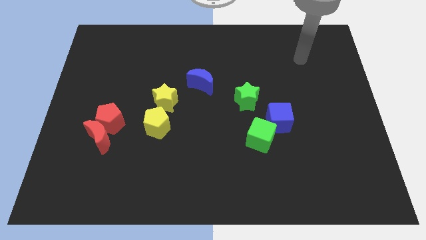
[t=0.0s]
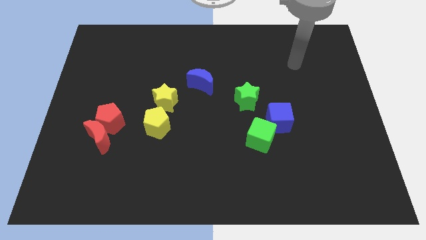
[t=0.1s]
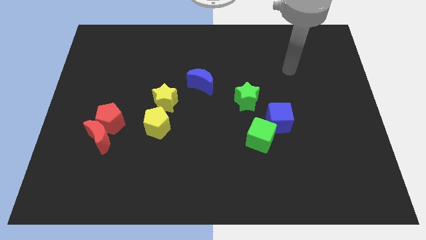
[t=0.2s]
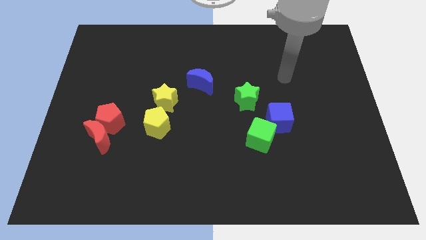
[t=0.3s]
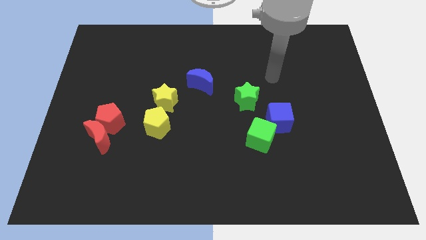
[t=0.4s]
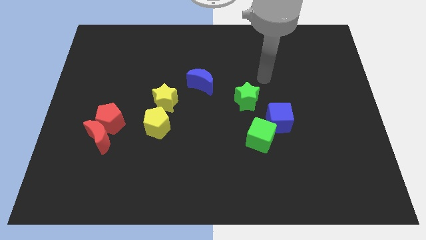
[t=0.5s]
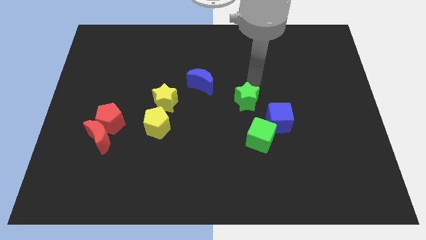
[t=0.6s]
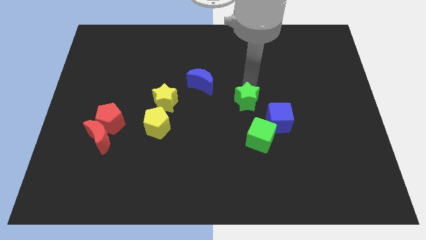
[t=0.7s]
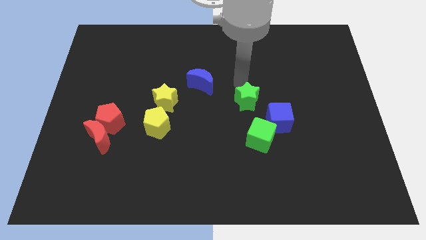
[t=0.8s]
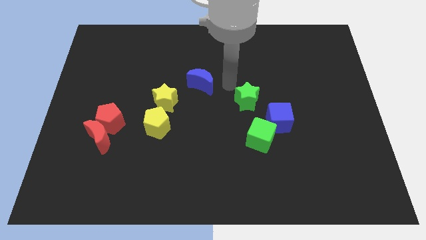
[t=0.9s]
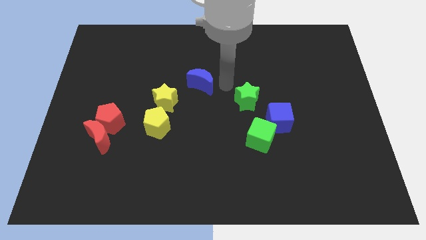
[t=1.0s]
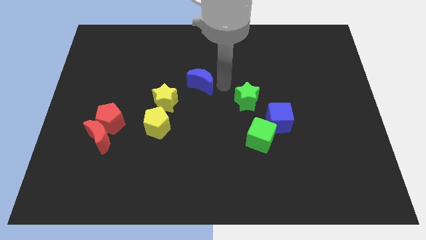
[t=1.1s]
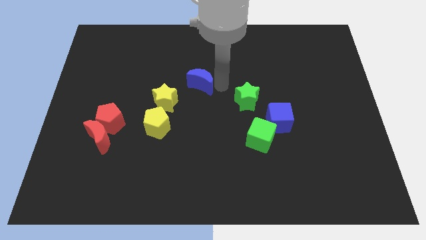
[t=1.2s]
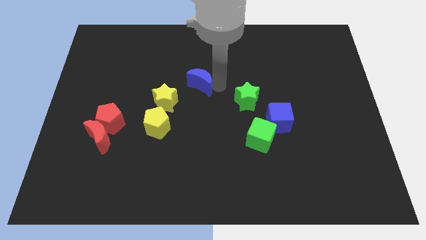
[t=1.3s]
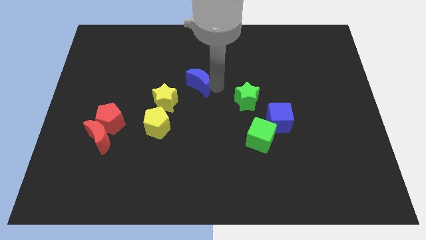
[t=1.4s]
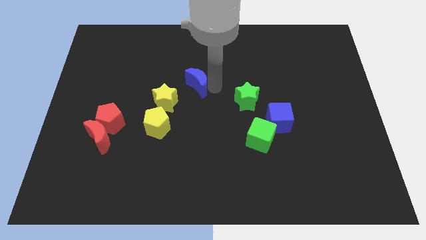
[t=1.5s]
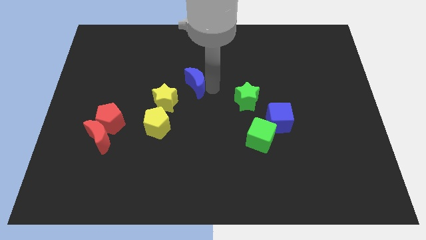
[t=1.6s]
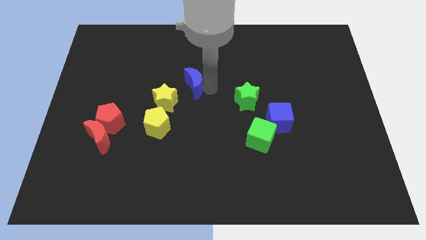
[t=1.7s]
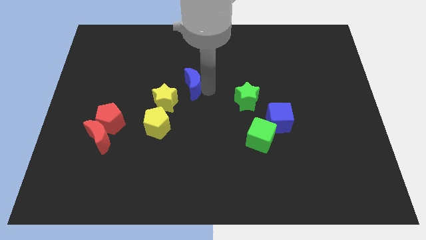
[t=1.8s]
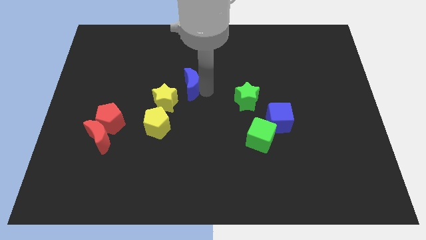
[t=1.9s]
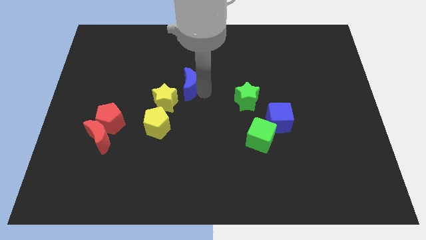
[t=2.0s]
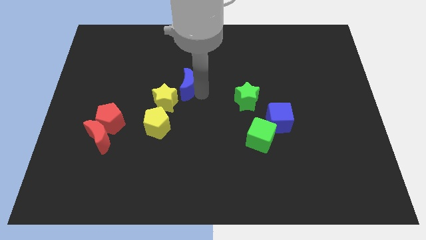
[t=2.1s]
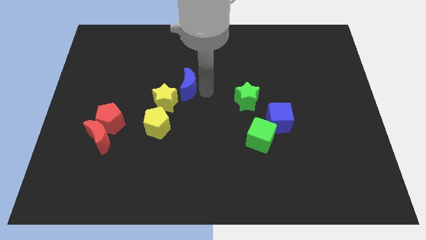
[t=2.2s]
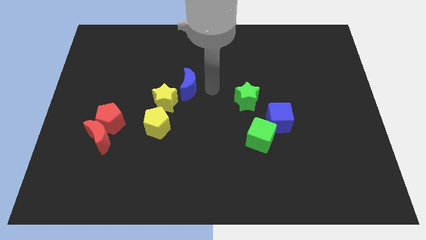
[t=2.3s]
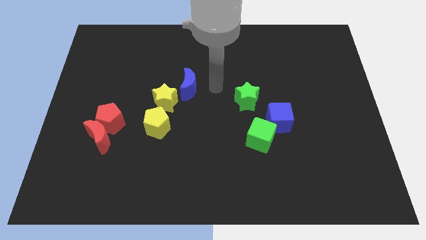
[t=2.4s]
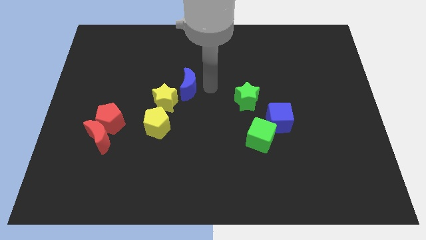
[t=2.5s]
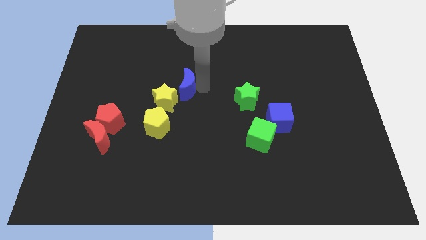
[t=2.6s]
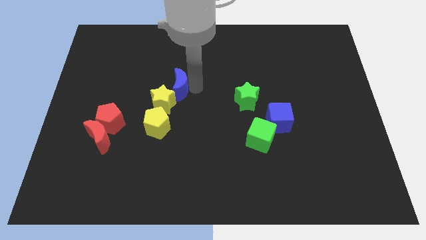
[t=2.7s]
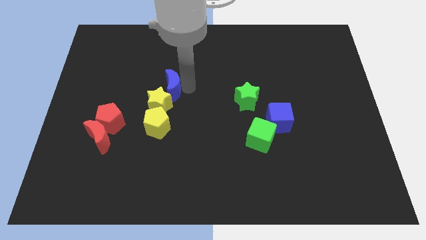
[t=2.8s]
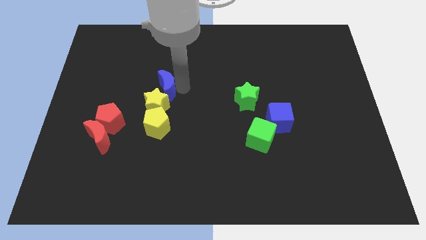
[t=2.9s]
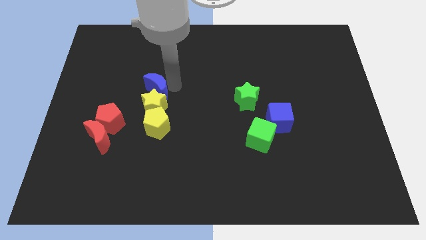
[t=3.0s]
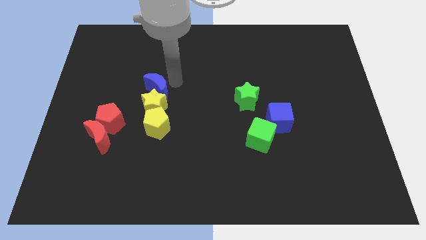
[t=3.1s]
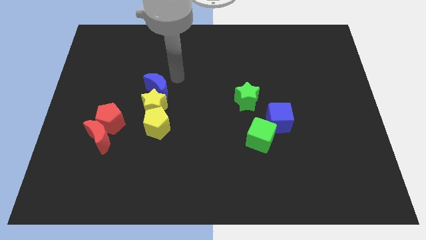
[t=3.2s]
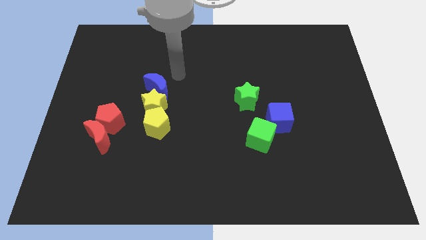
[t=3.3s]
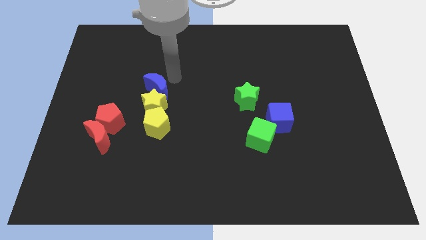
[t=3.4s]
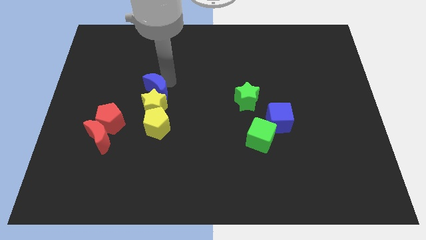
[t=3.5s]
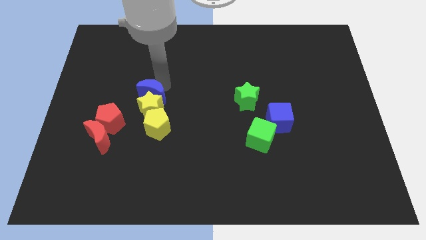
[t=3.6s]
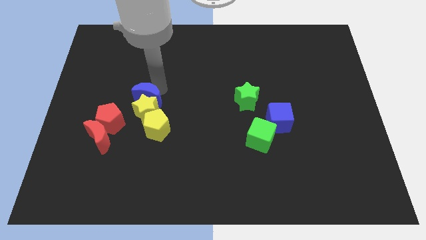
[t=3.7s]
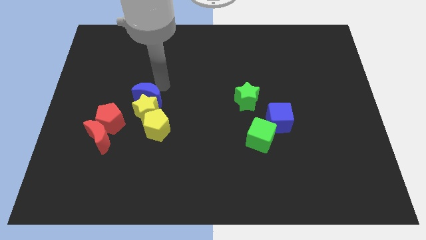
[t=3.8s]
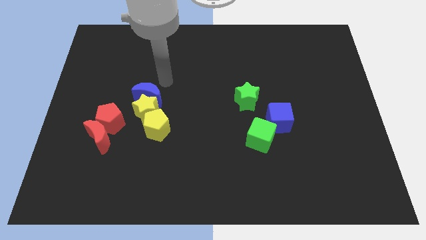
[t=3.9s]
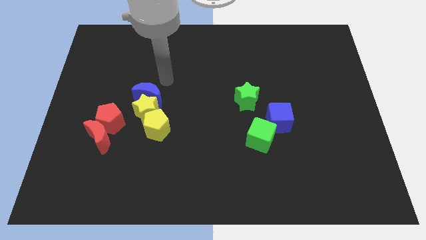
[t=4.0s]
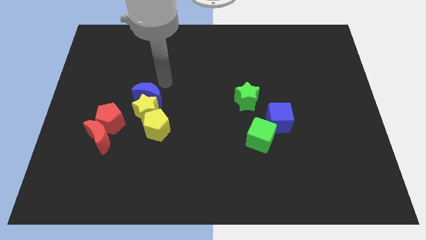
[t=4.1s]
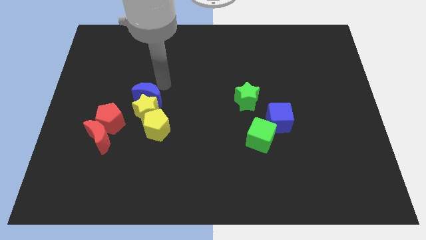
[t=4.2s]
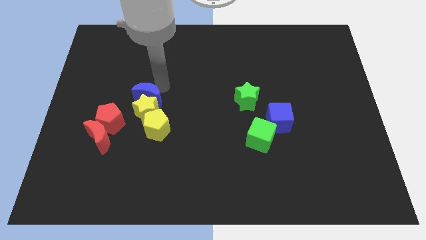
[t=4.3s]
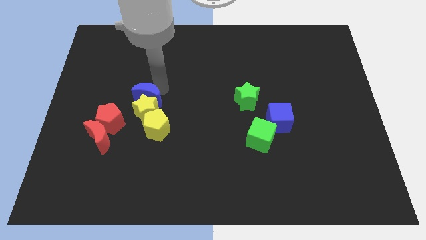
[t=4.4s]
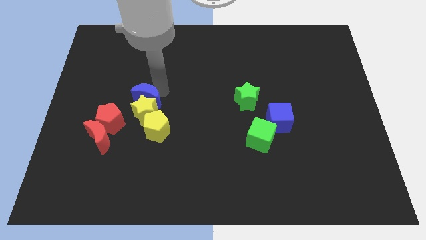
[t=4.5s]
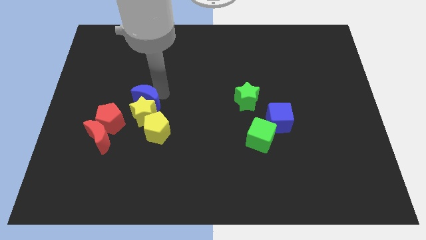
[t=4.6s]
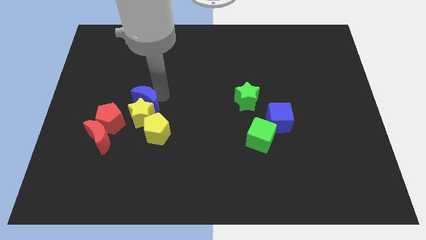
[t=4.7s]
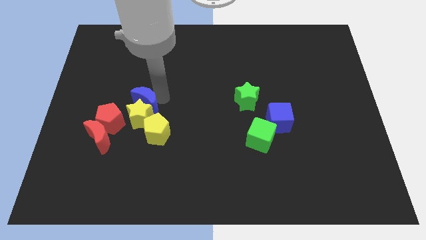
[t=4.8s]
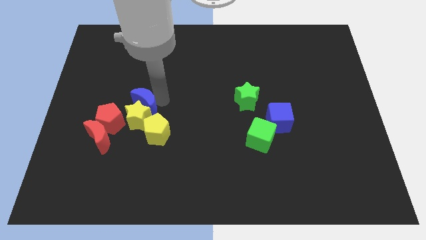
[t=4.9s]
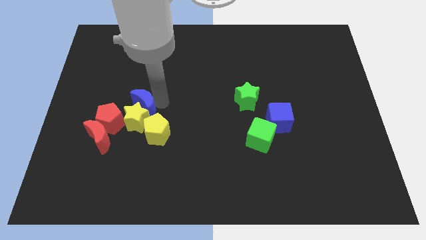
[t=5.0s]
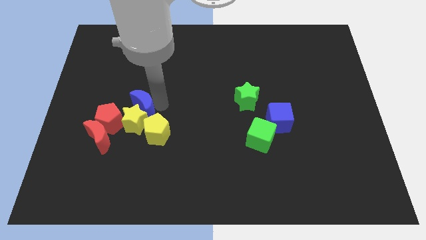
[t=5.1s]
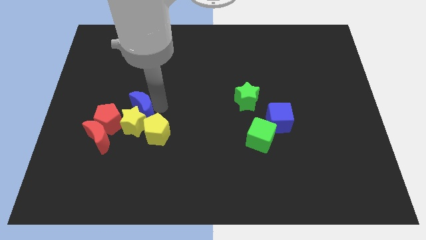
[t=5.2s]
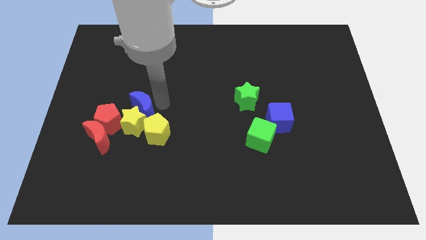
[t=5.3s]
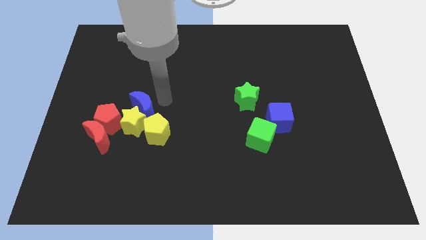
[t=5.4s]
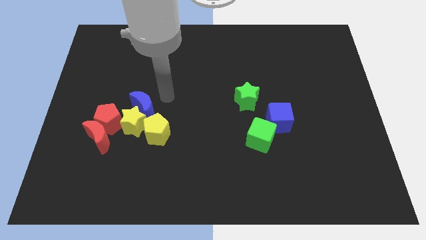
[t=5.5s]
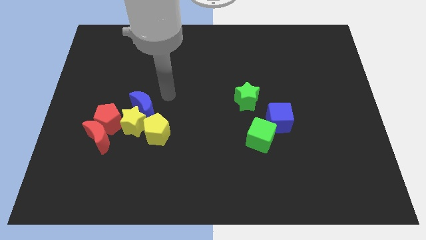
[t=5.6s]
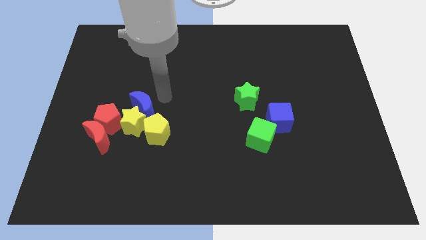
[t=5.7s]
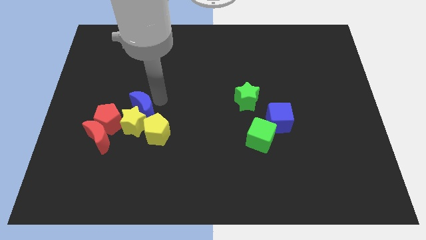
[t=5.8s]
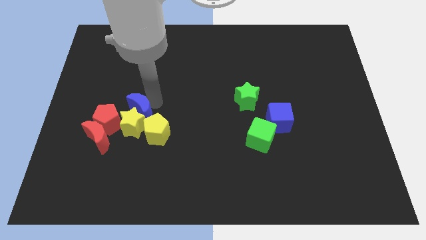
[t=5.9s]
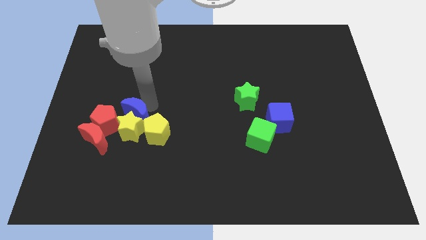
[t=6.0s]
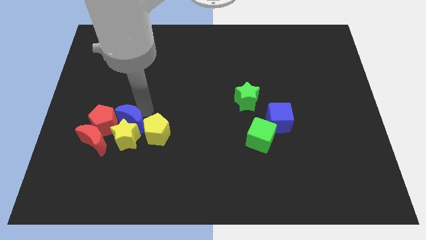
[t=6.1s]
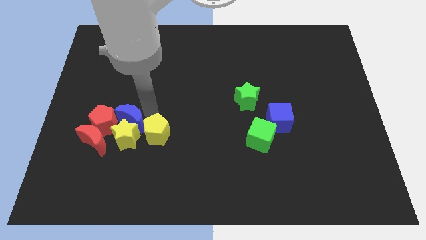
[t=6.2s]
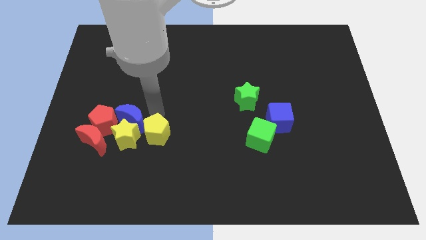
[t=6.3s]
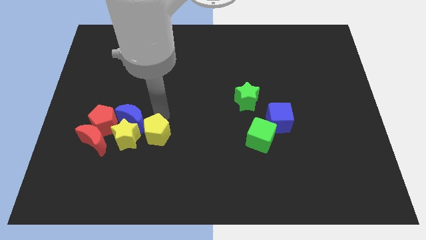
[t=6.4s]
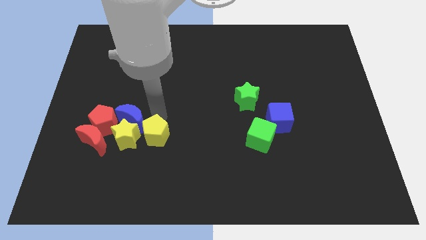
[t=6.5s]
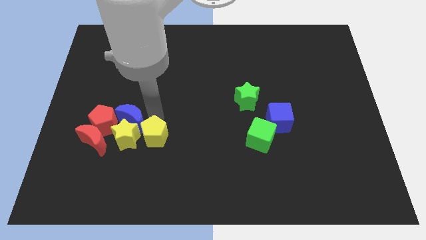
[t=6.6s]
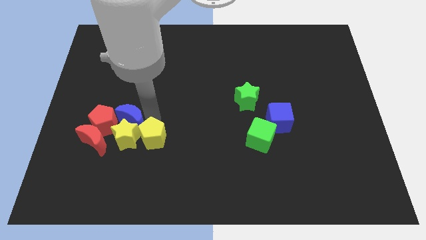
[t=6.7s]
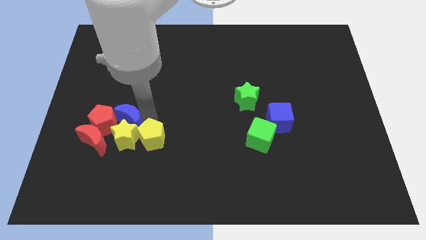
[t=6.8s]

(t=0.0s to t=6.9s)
slide the blue moon towards the red pentagon

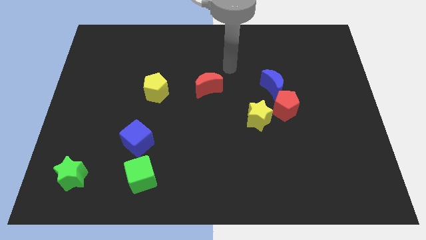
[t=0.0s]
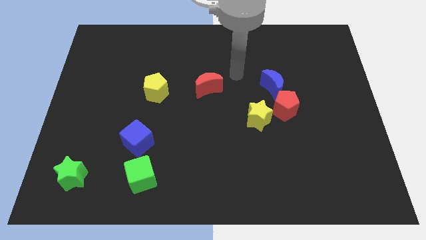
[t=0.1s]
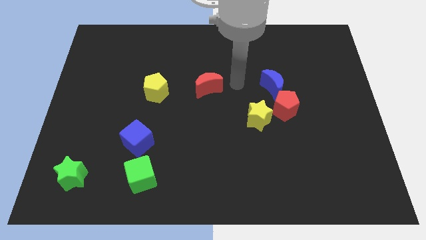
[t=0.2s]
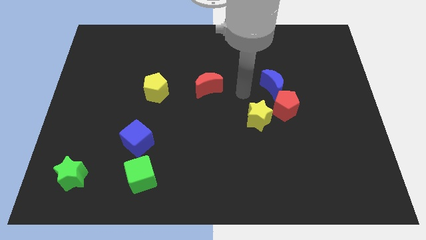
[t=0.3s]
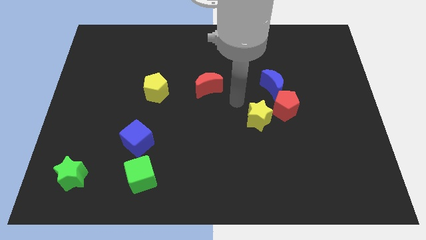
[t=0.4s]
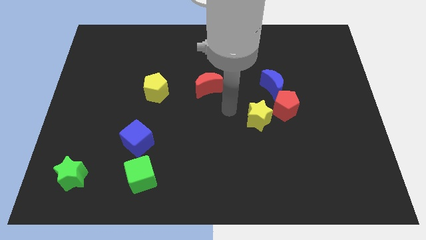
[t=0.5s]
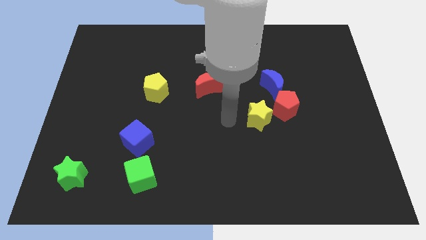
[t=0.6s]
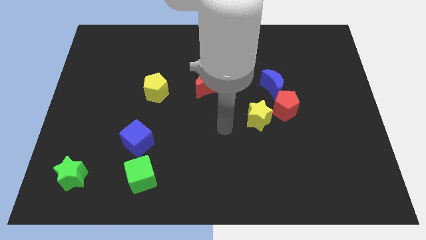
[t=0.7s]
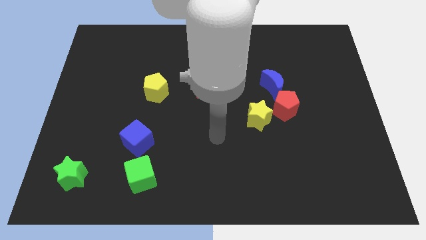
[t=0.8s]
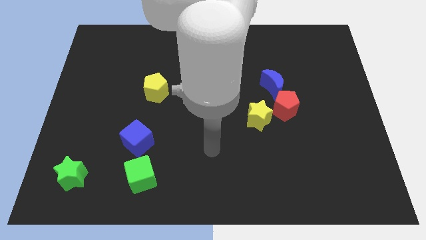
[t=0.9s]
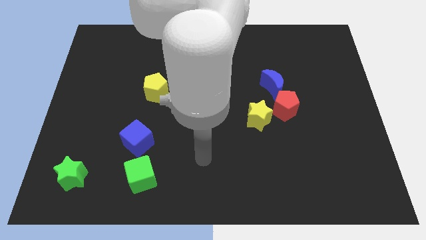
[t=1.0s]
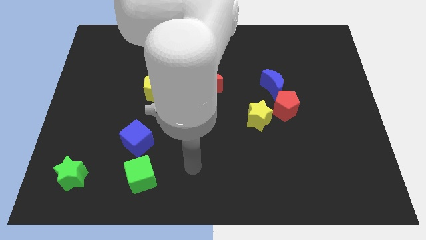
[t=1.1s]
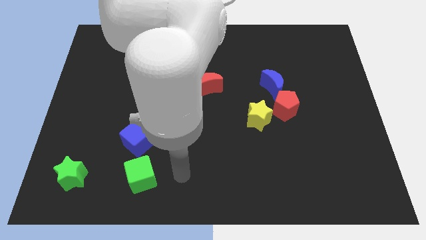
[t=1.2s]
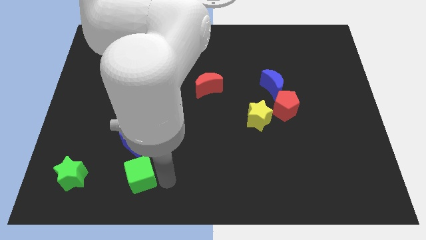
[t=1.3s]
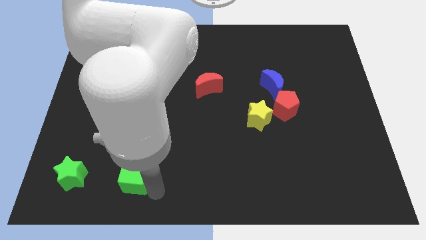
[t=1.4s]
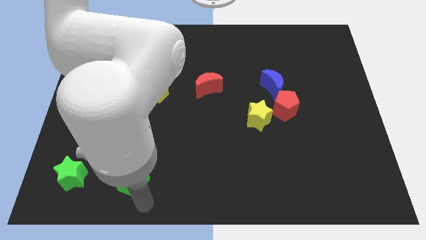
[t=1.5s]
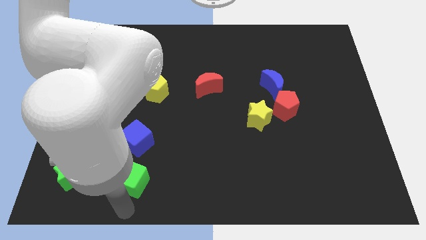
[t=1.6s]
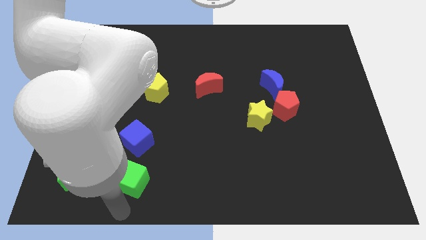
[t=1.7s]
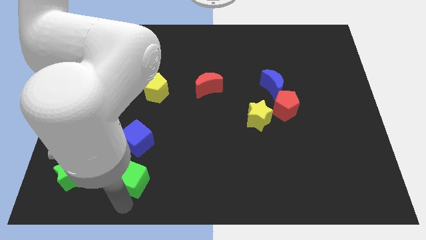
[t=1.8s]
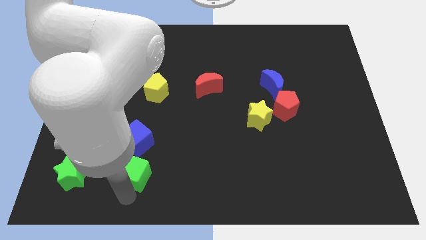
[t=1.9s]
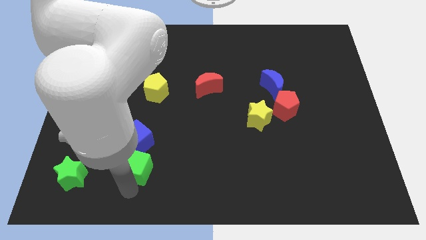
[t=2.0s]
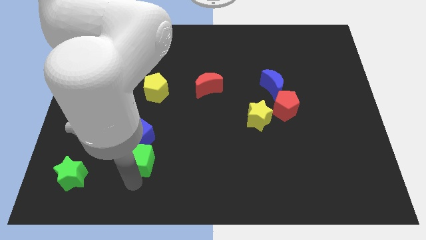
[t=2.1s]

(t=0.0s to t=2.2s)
move the green cube to the blue cube
